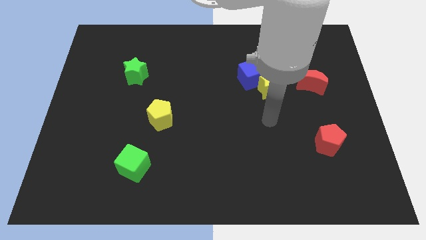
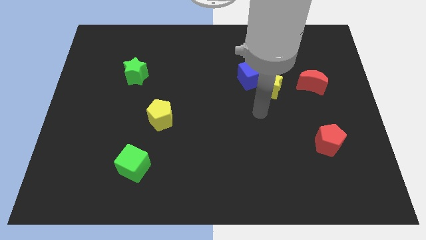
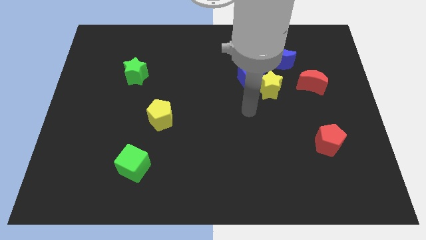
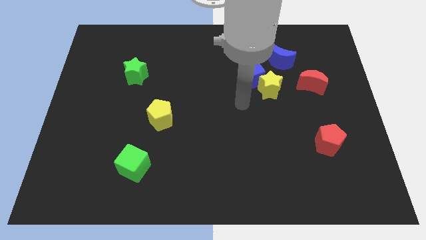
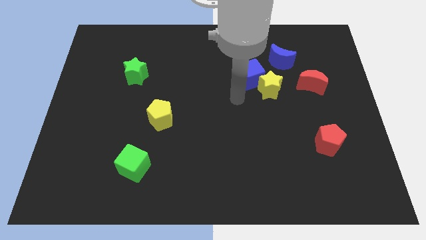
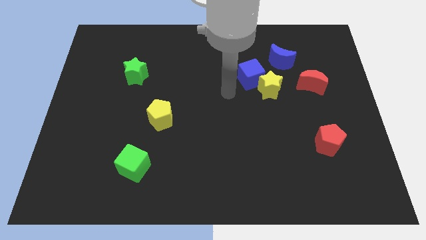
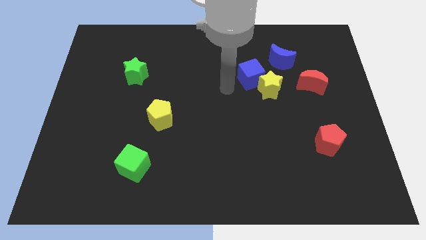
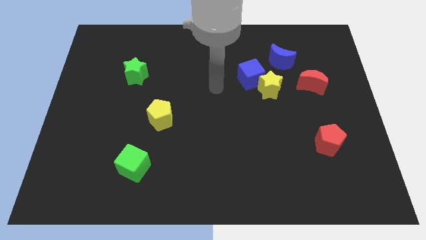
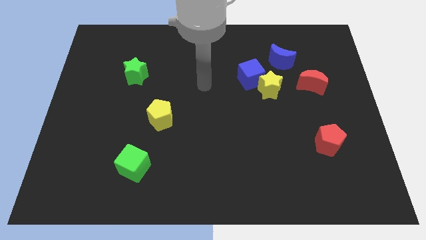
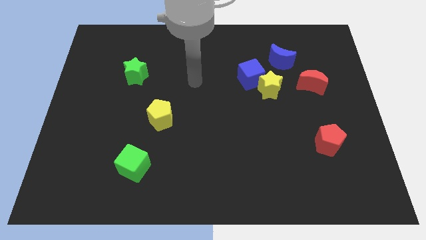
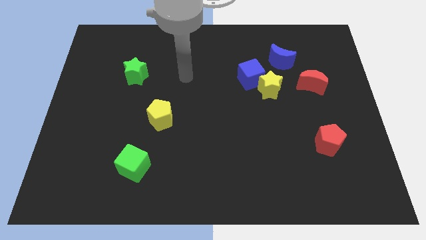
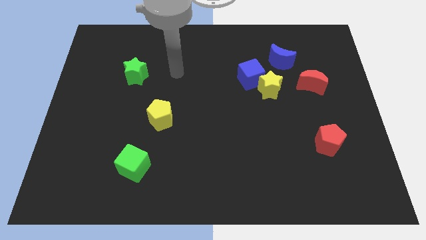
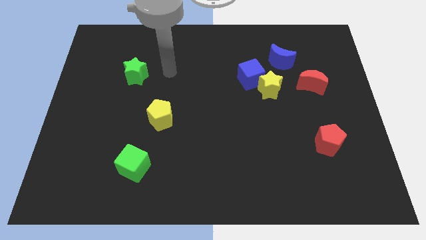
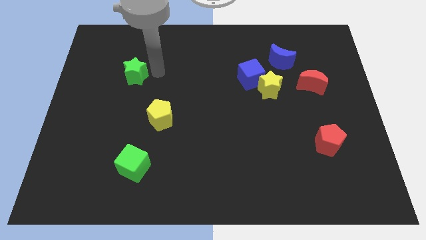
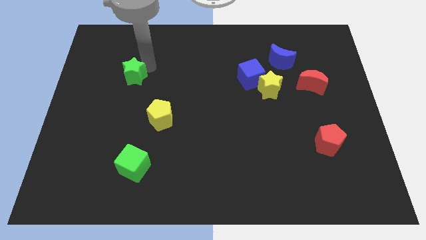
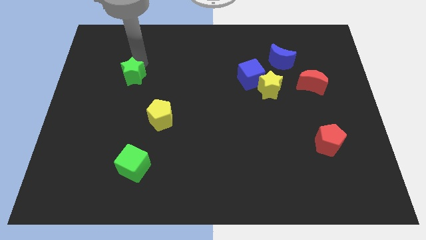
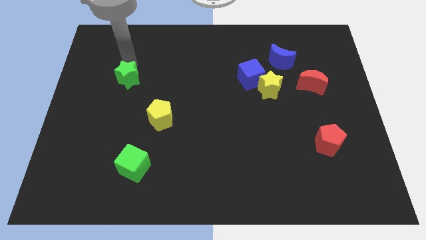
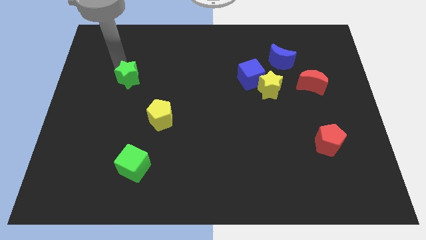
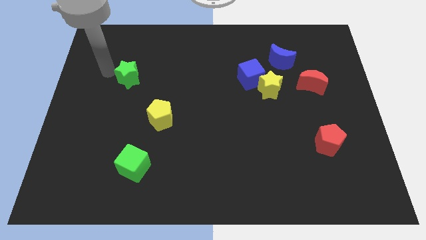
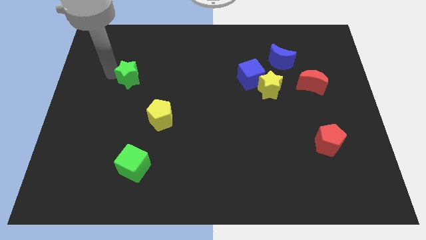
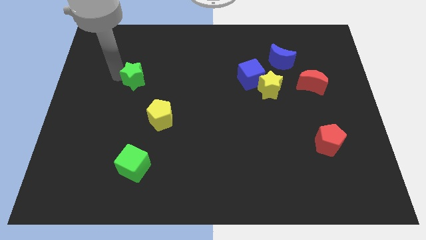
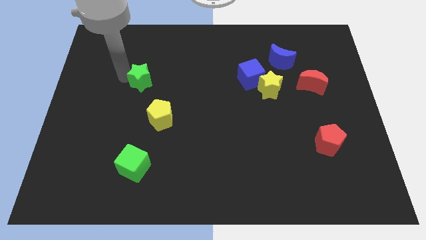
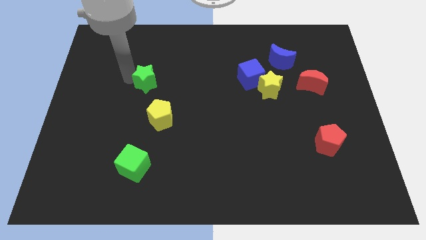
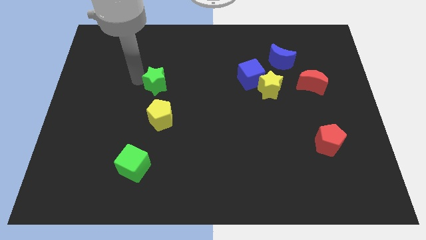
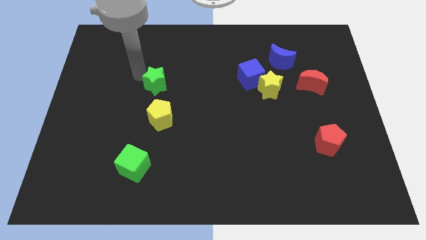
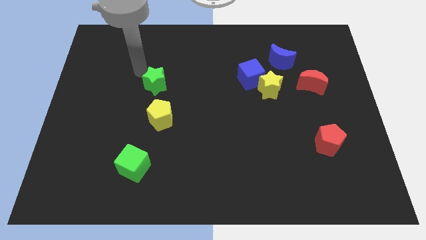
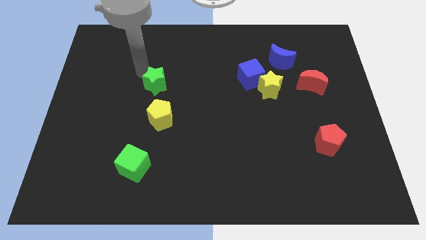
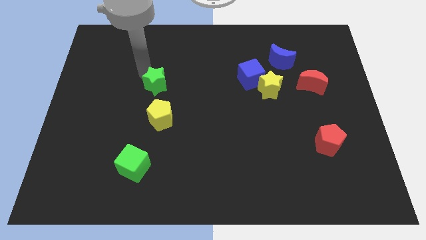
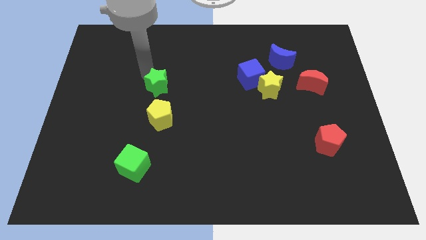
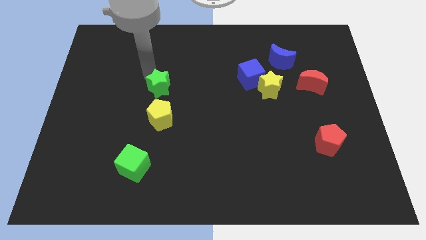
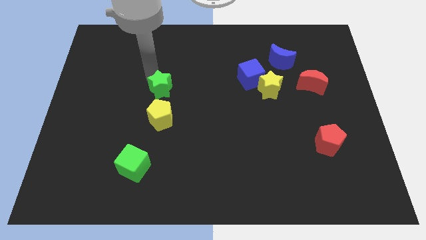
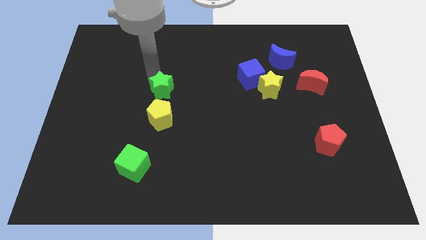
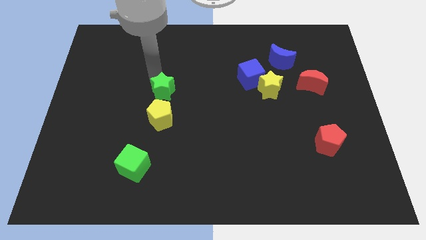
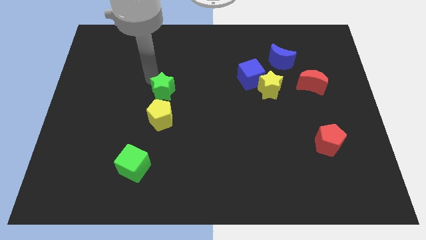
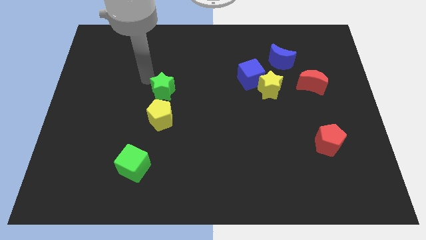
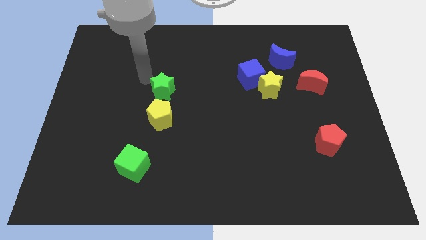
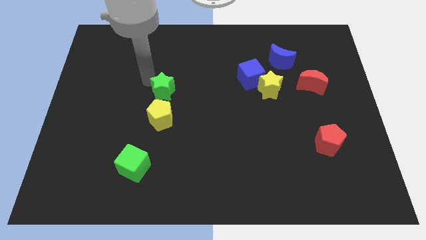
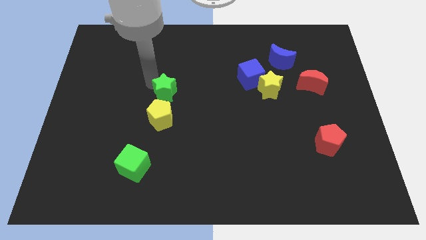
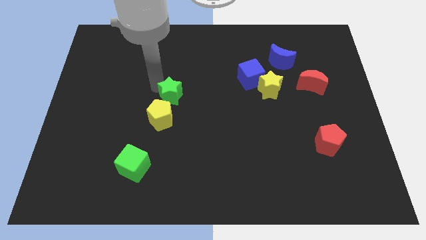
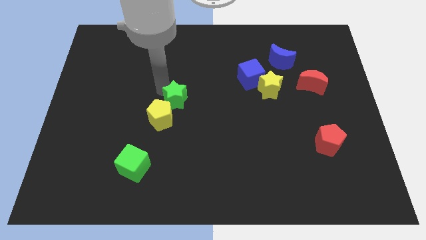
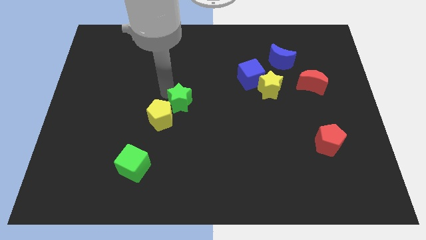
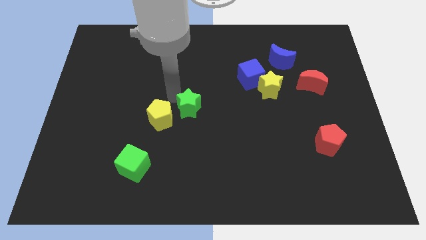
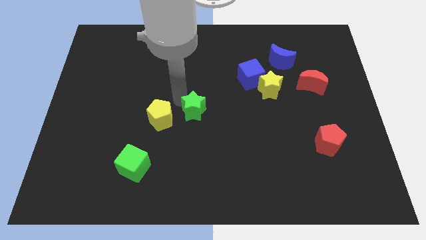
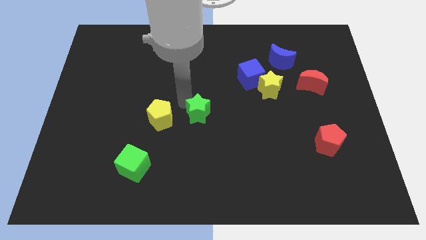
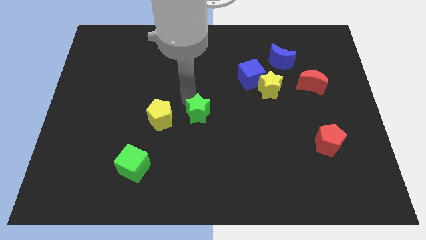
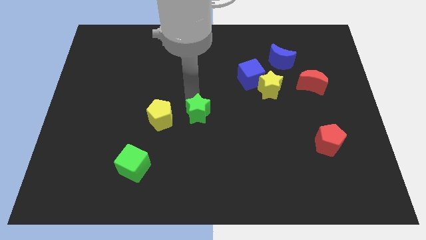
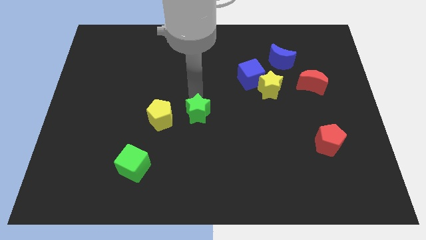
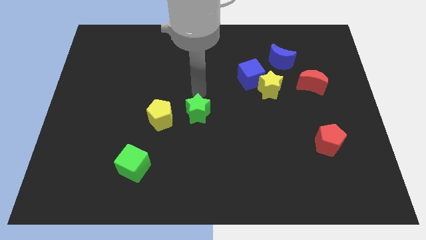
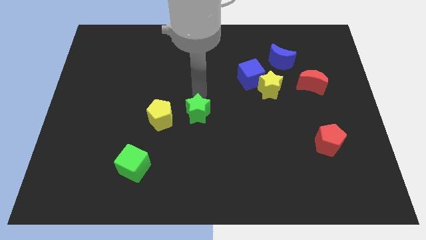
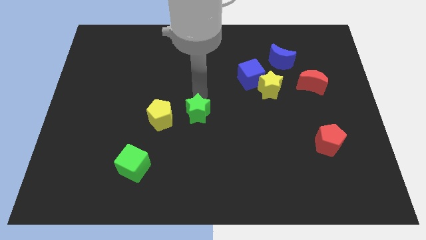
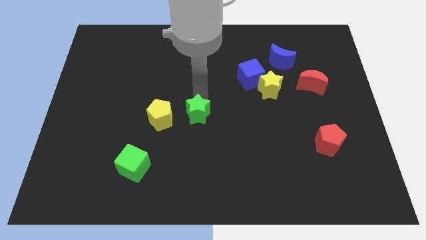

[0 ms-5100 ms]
push the green star diagonally downwards and right

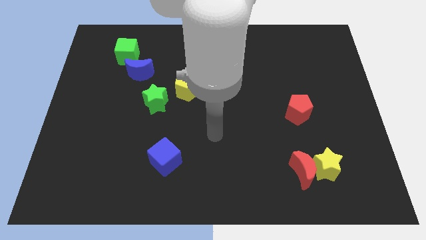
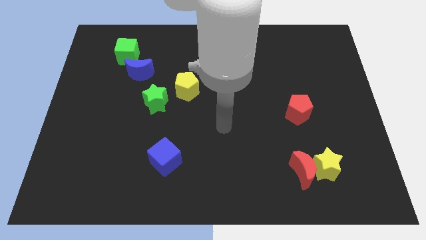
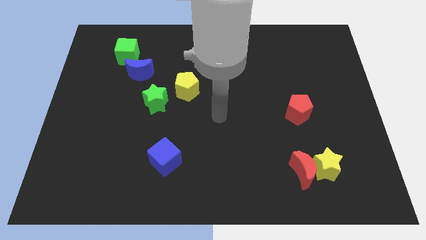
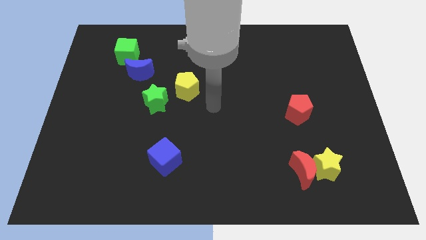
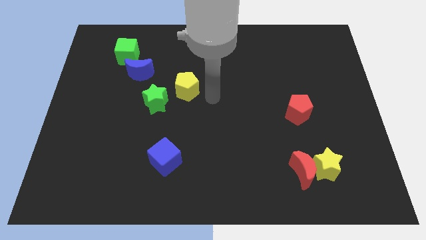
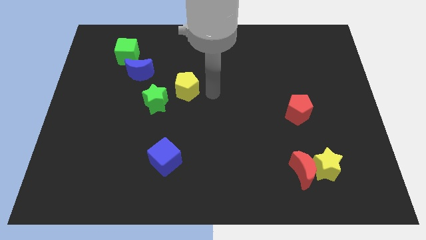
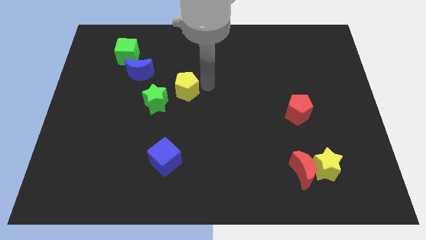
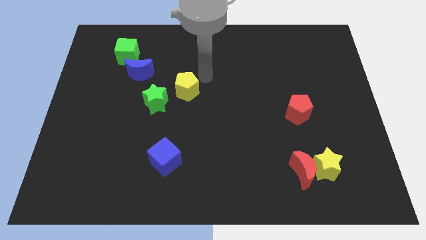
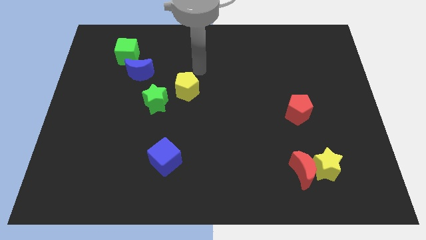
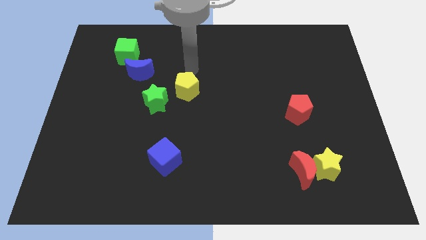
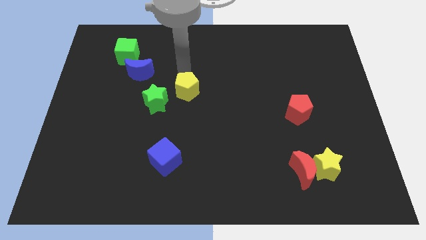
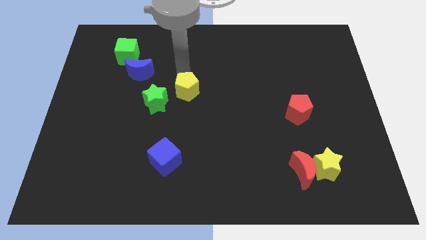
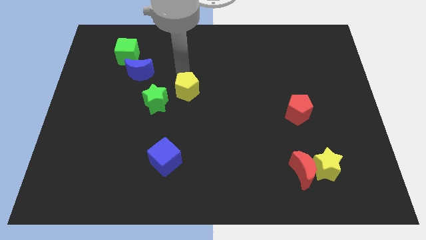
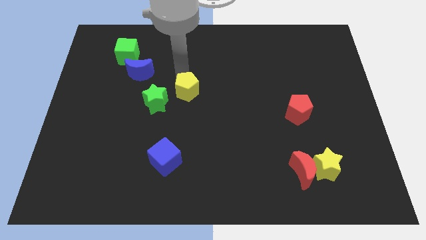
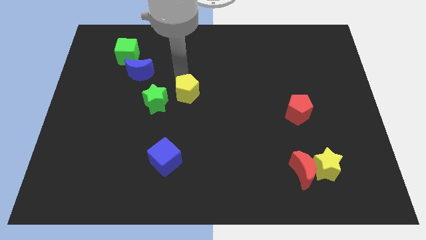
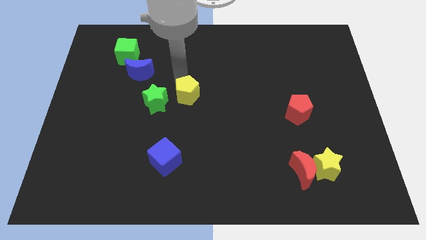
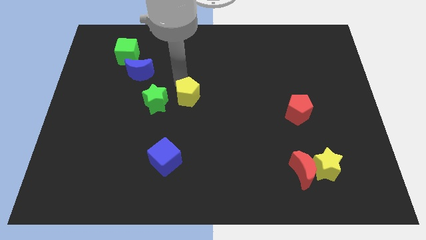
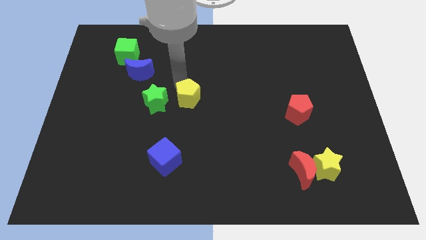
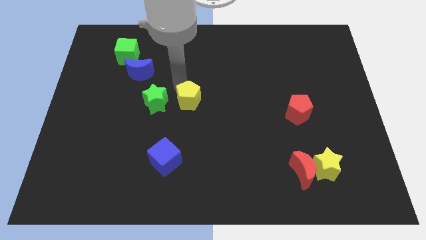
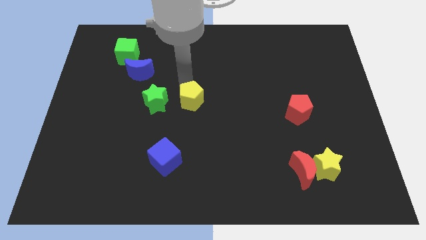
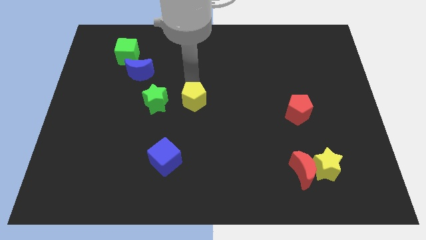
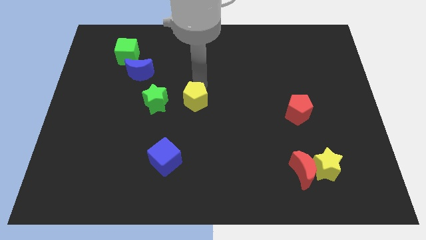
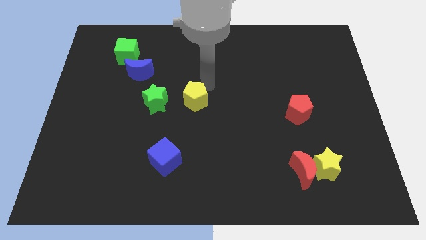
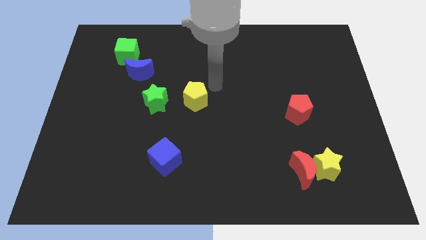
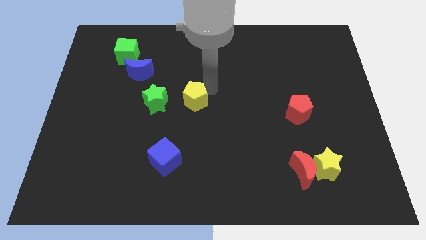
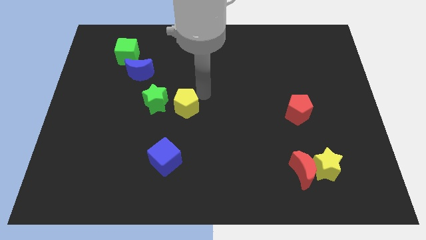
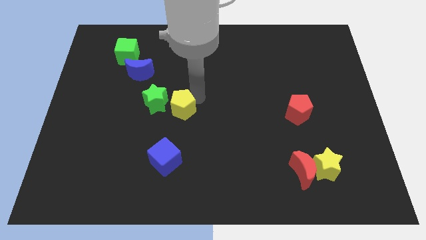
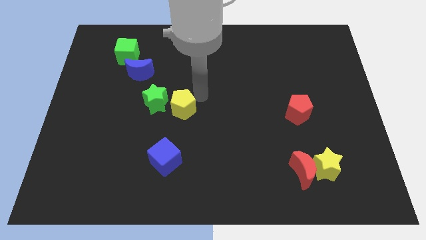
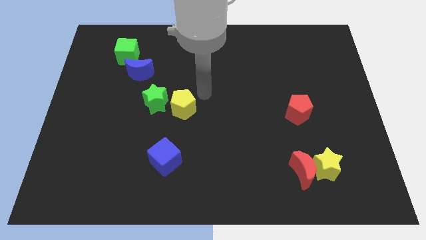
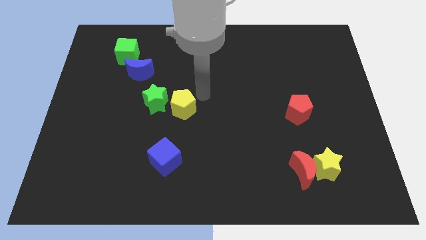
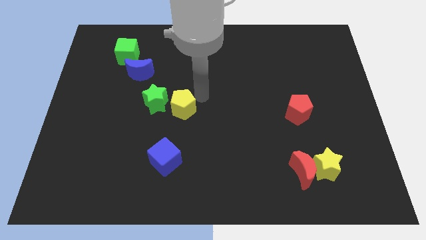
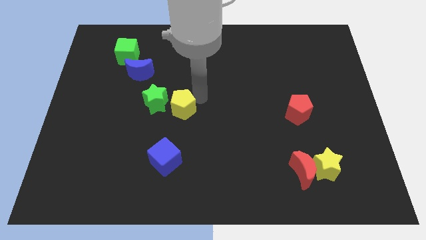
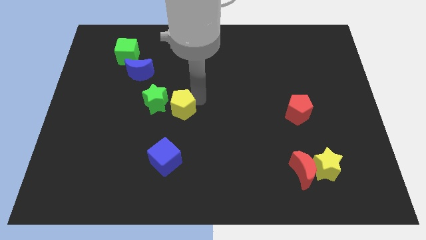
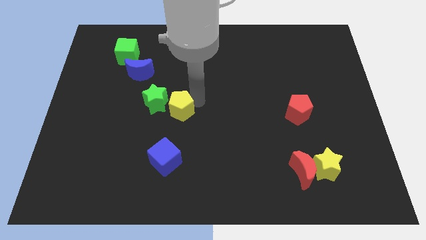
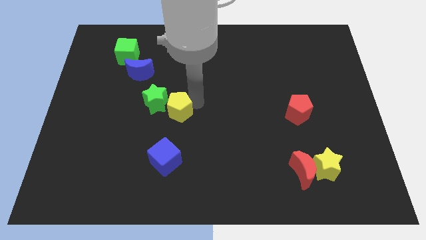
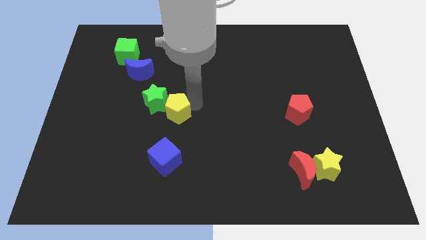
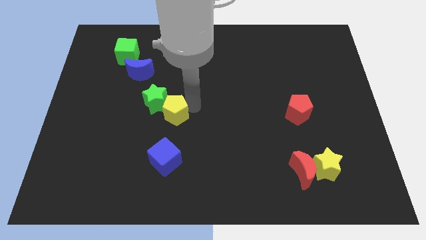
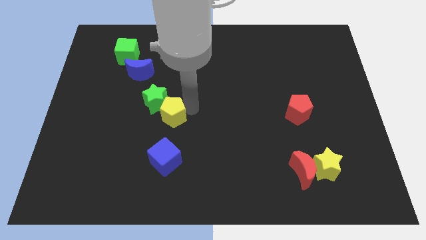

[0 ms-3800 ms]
slightly push the yellow pentagon down and then left
